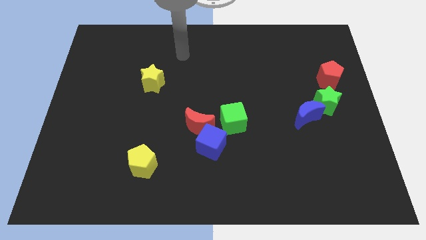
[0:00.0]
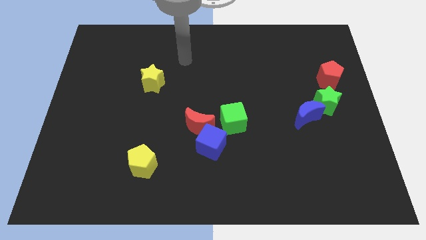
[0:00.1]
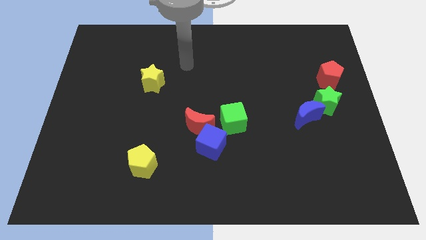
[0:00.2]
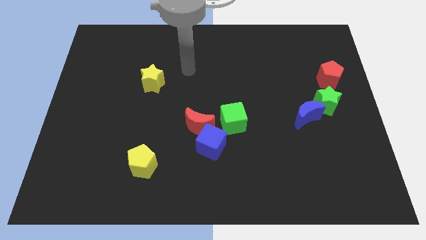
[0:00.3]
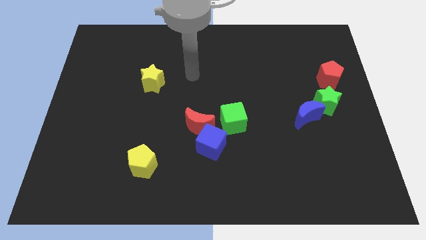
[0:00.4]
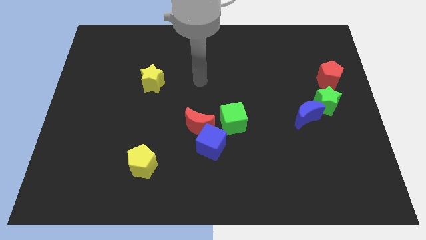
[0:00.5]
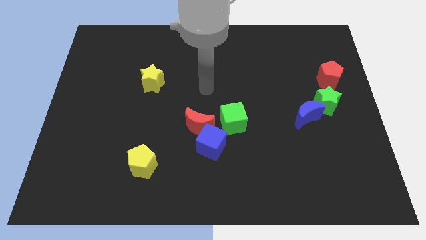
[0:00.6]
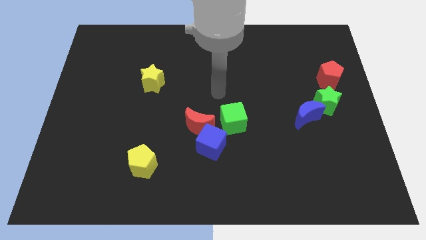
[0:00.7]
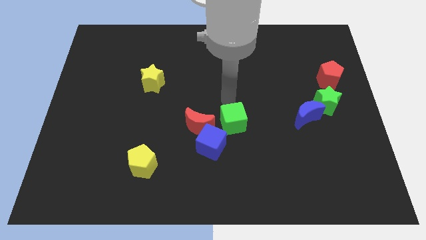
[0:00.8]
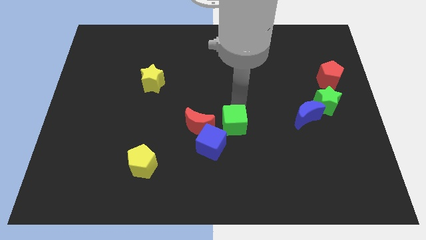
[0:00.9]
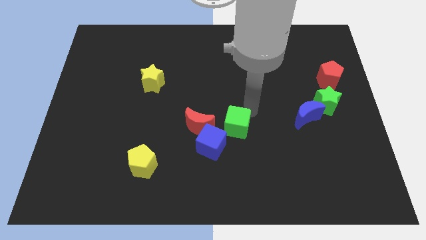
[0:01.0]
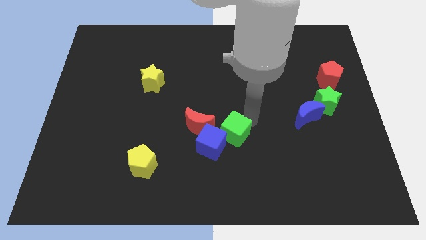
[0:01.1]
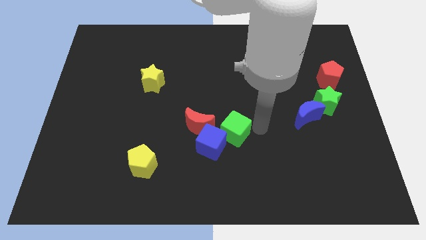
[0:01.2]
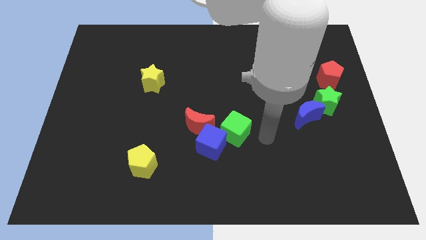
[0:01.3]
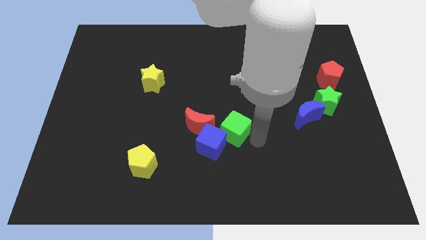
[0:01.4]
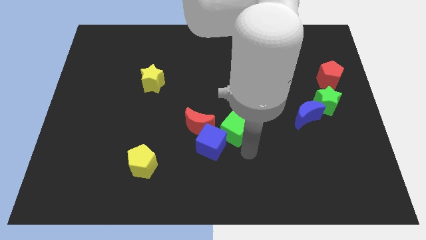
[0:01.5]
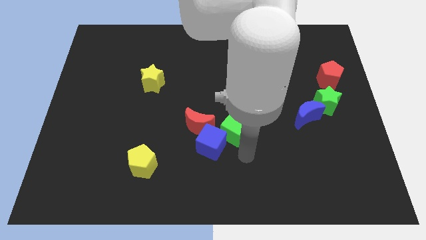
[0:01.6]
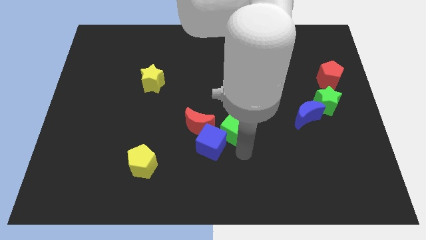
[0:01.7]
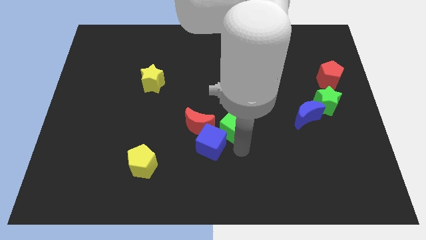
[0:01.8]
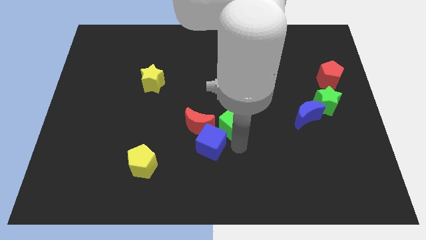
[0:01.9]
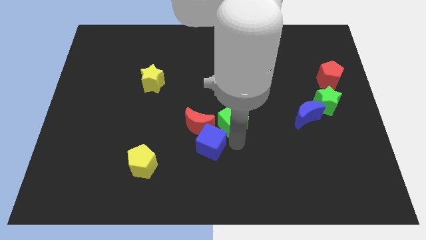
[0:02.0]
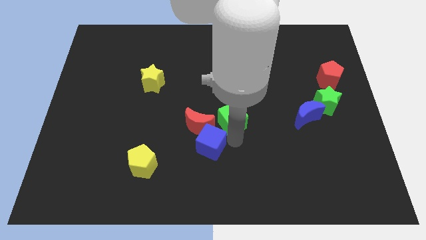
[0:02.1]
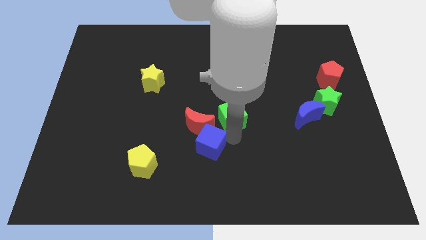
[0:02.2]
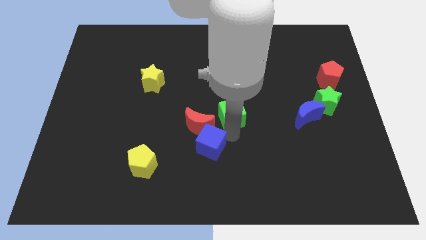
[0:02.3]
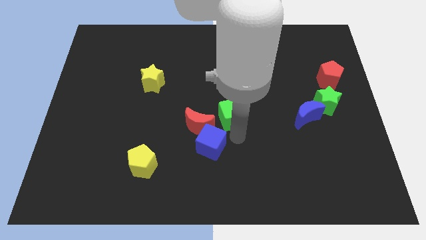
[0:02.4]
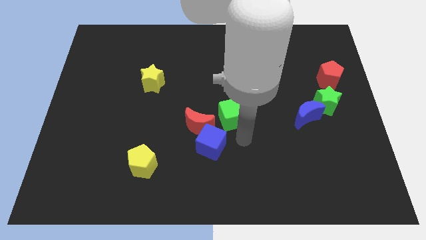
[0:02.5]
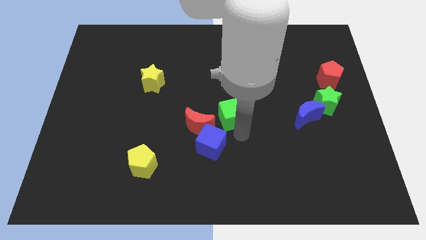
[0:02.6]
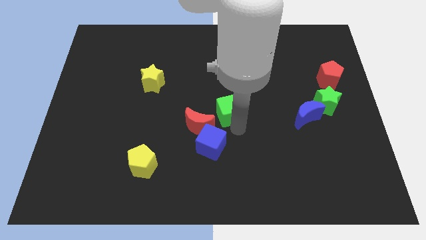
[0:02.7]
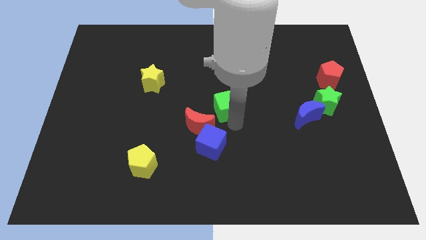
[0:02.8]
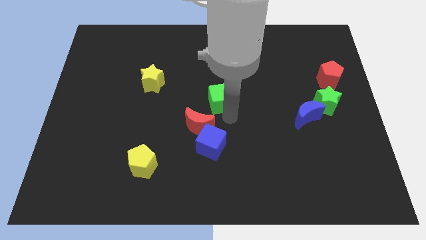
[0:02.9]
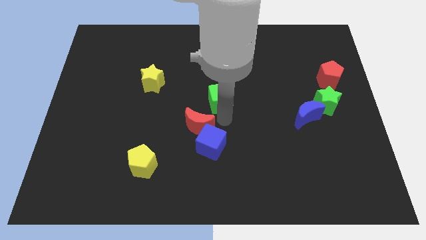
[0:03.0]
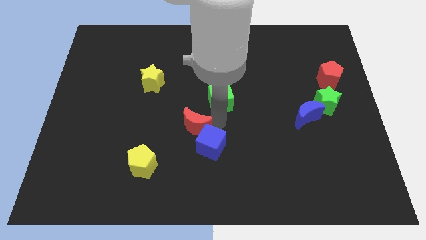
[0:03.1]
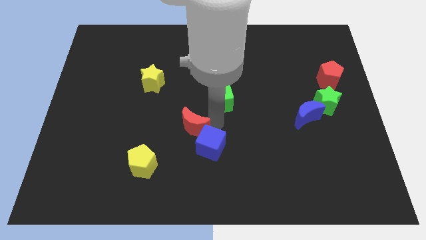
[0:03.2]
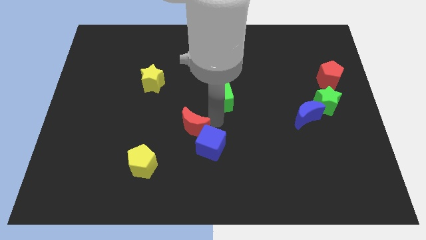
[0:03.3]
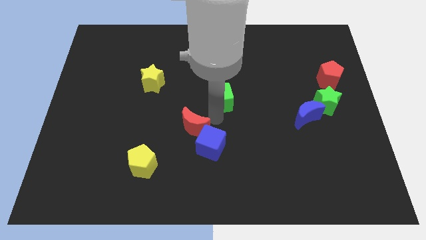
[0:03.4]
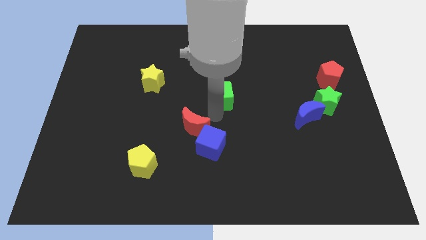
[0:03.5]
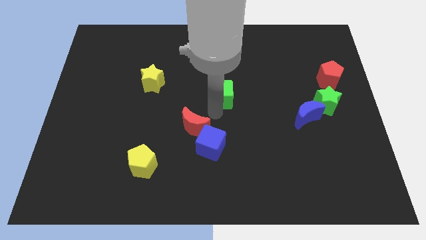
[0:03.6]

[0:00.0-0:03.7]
slide the green cube up a little bit

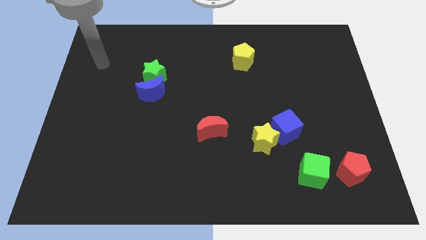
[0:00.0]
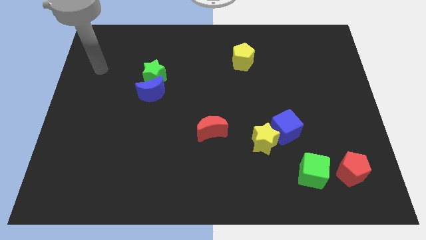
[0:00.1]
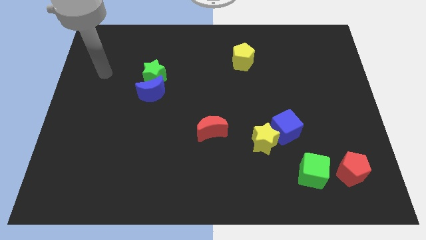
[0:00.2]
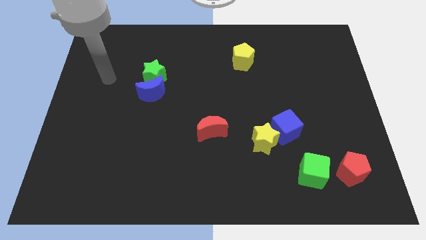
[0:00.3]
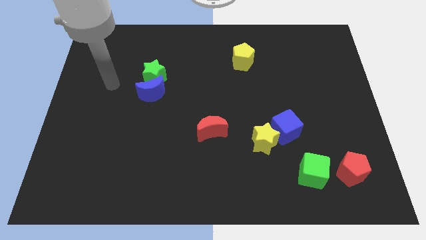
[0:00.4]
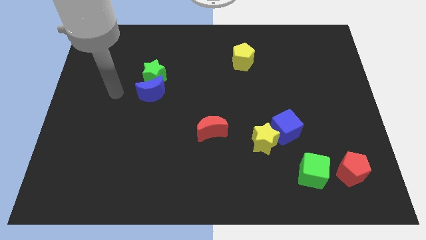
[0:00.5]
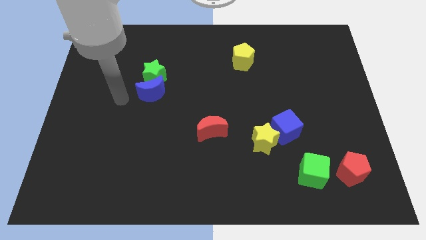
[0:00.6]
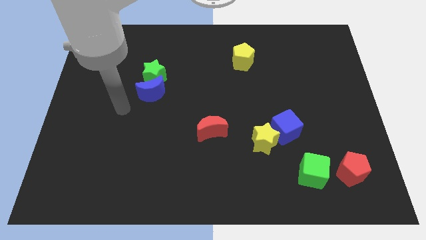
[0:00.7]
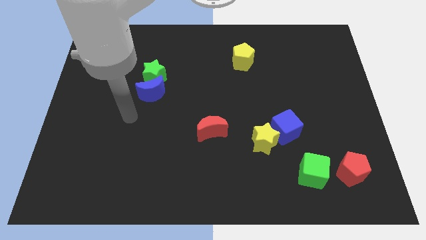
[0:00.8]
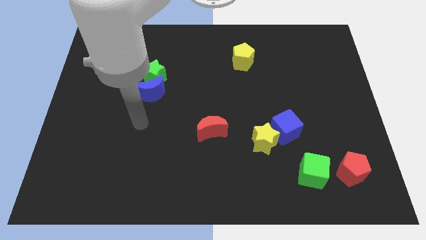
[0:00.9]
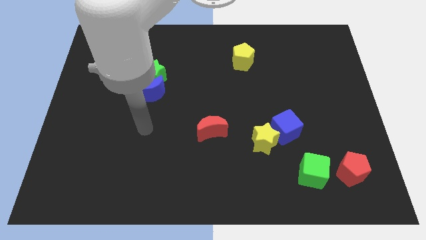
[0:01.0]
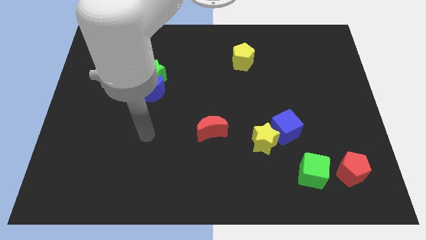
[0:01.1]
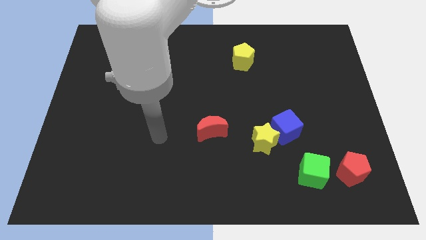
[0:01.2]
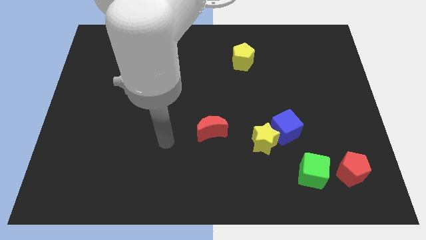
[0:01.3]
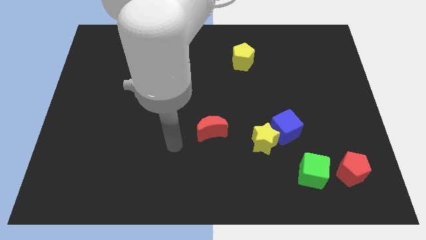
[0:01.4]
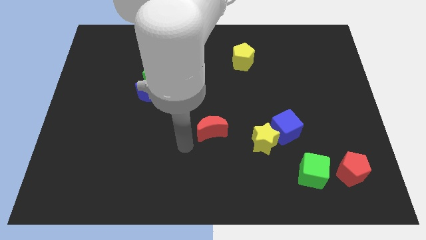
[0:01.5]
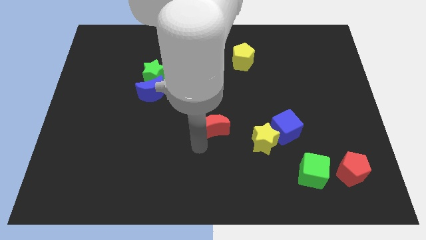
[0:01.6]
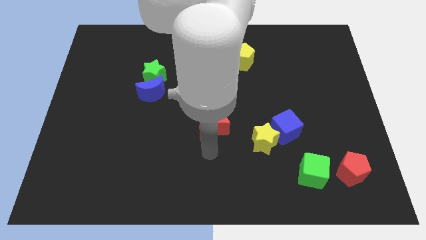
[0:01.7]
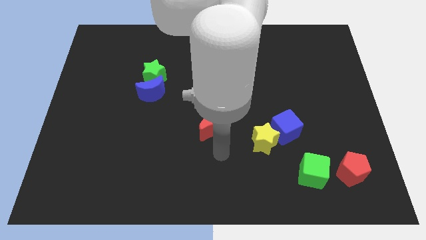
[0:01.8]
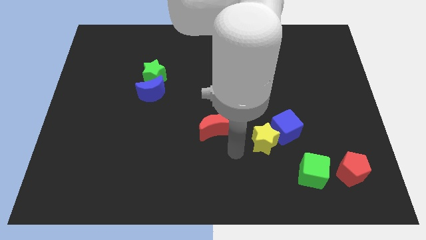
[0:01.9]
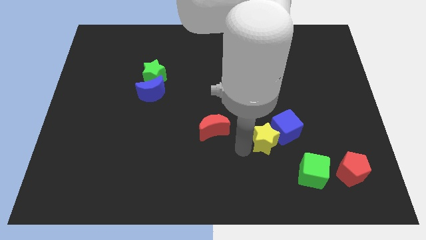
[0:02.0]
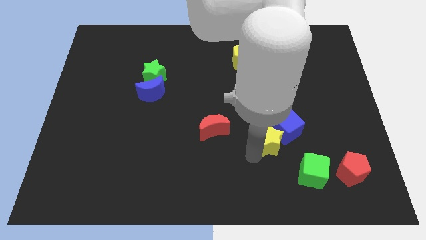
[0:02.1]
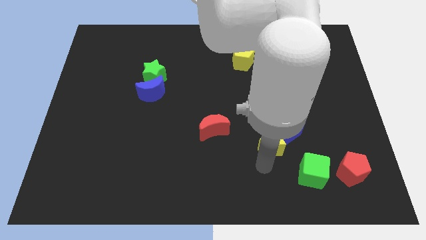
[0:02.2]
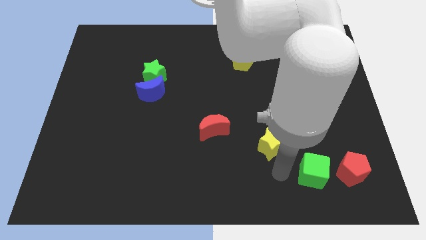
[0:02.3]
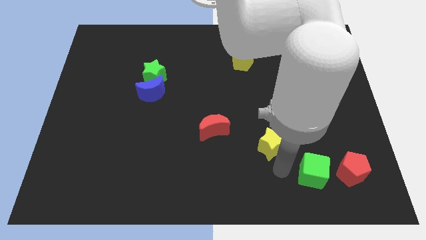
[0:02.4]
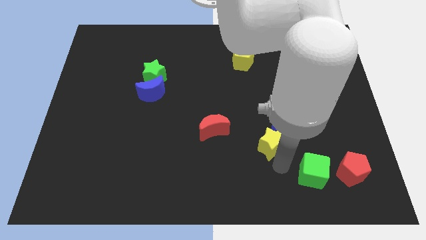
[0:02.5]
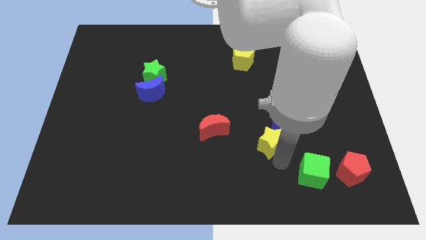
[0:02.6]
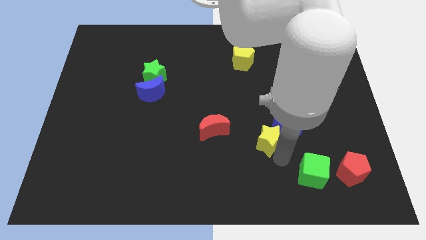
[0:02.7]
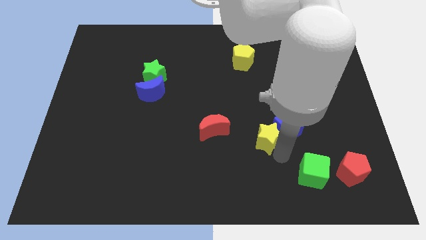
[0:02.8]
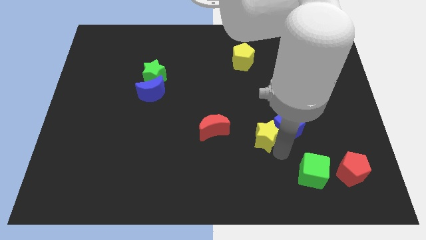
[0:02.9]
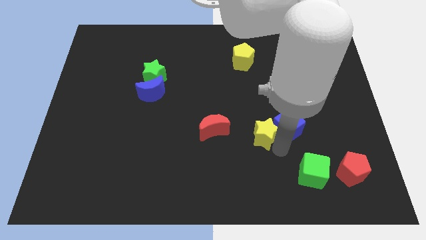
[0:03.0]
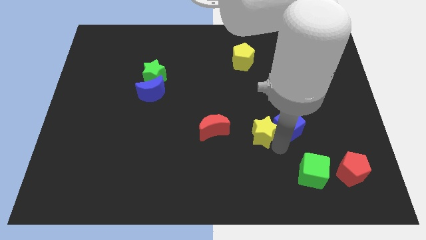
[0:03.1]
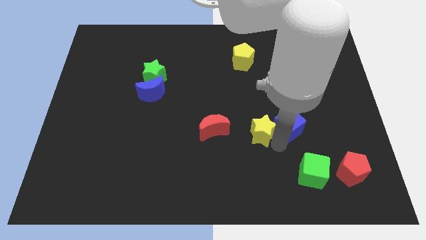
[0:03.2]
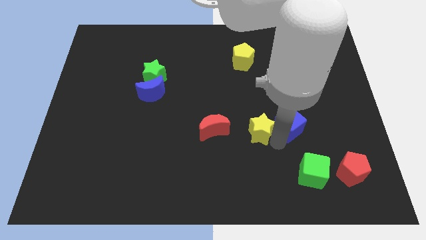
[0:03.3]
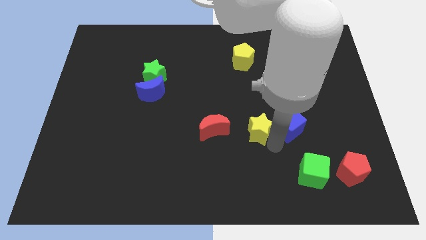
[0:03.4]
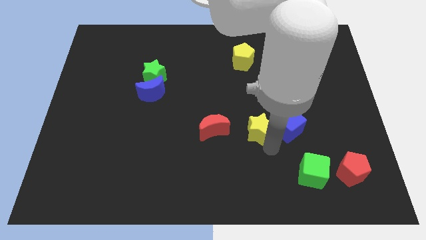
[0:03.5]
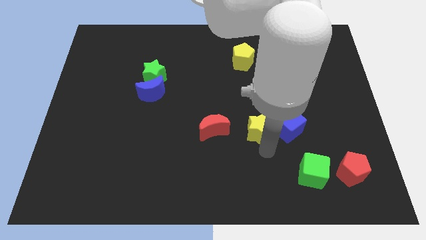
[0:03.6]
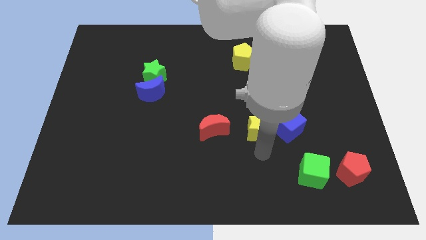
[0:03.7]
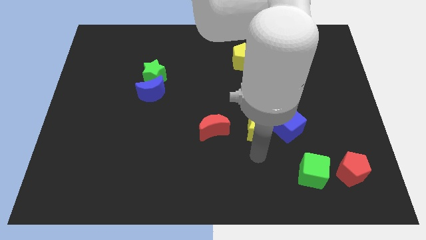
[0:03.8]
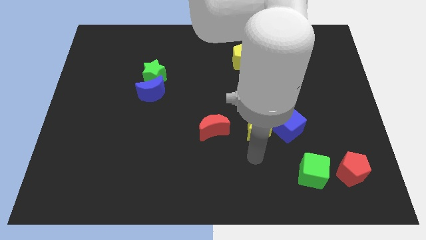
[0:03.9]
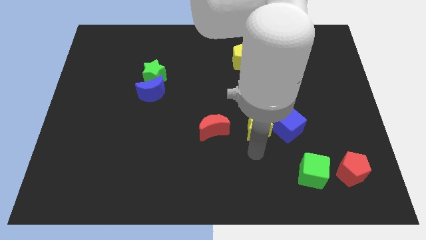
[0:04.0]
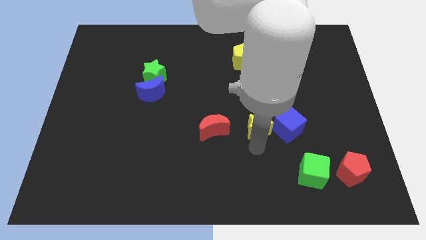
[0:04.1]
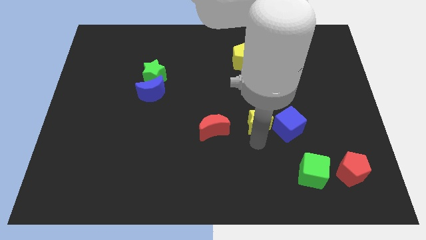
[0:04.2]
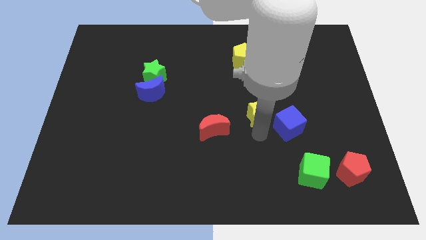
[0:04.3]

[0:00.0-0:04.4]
push the yellow star upwards a little
